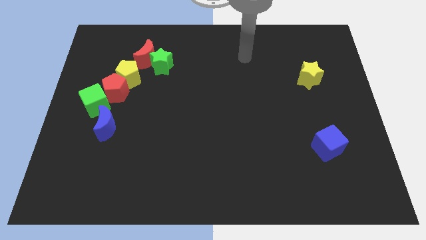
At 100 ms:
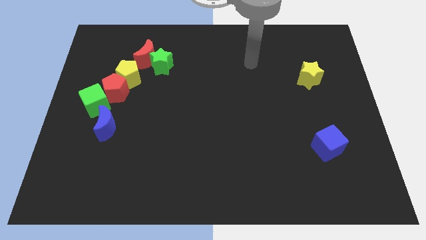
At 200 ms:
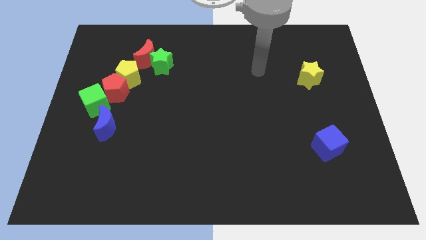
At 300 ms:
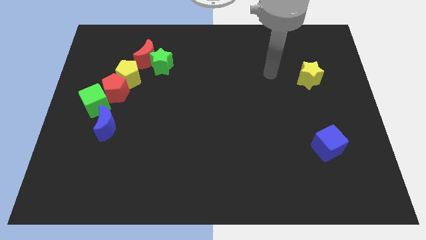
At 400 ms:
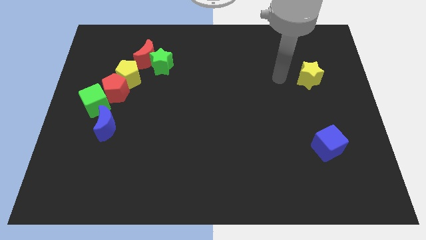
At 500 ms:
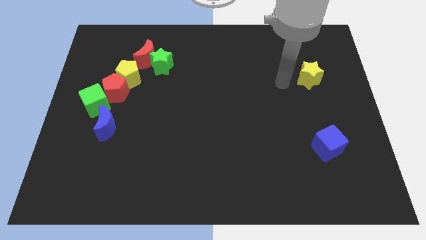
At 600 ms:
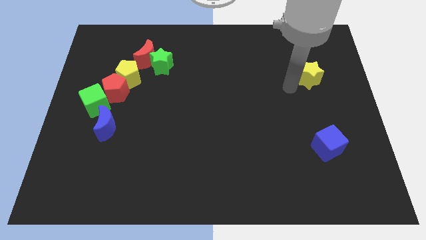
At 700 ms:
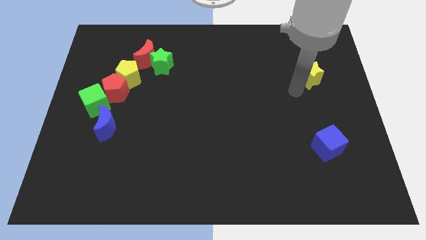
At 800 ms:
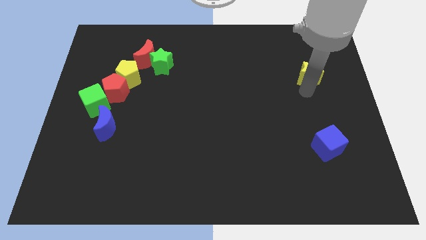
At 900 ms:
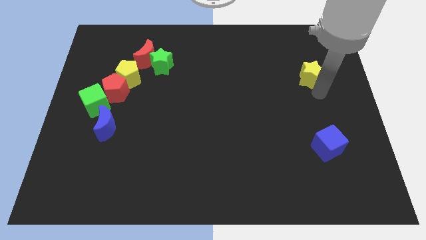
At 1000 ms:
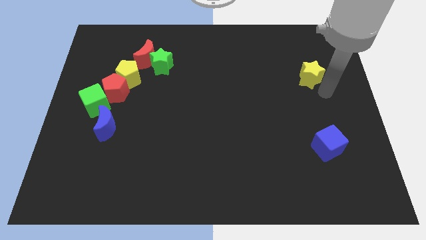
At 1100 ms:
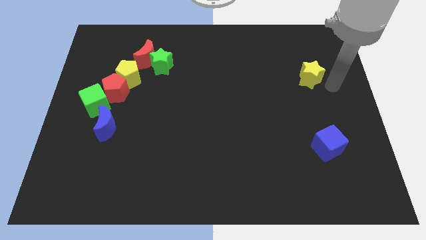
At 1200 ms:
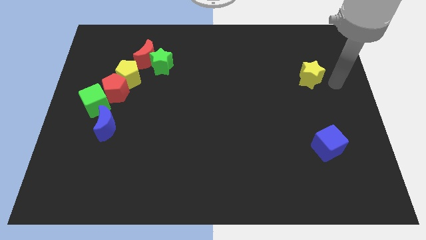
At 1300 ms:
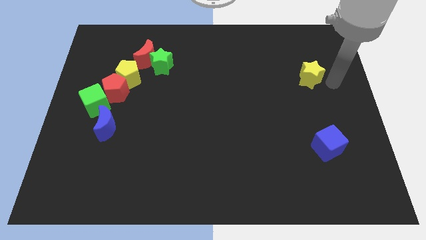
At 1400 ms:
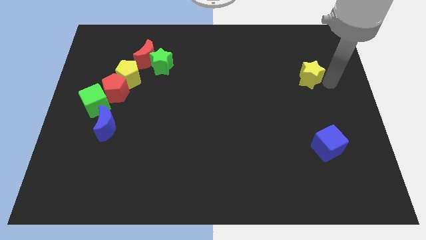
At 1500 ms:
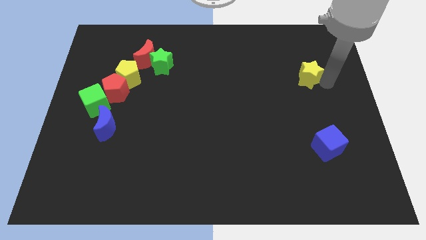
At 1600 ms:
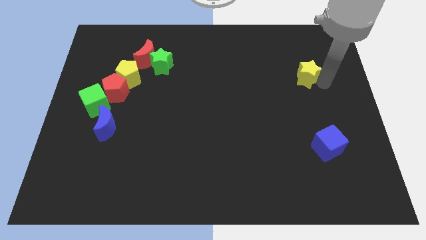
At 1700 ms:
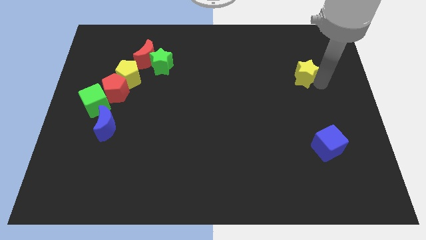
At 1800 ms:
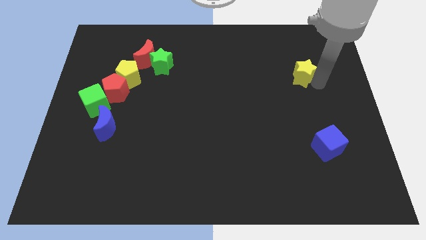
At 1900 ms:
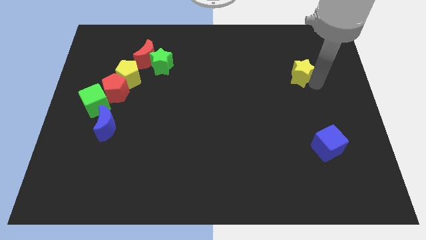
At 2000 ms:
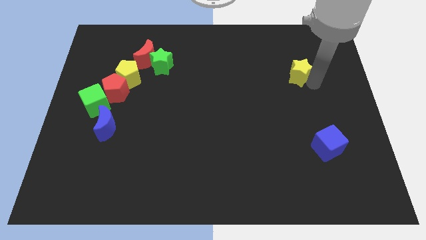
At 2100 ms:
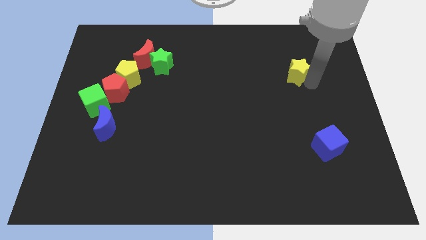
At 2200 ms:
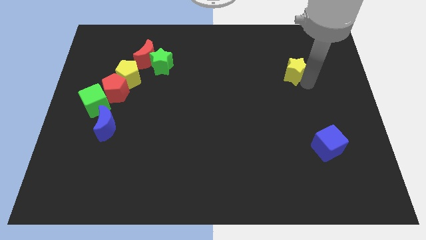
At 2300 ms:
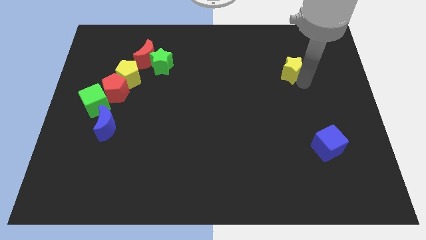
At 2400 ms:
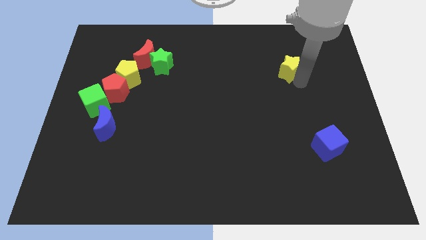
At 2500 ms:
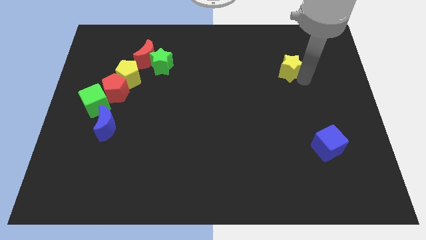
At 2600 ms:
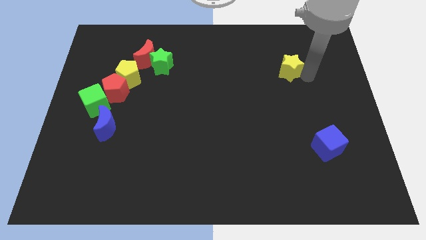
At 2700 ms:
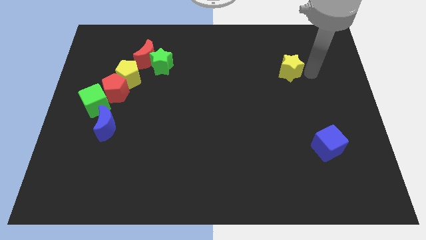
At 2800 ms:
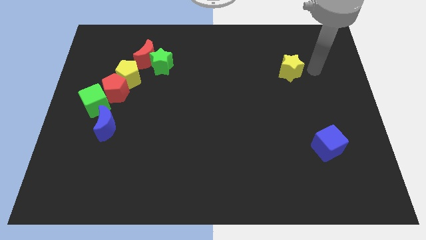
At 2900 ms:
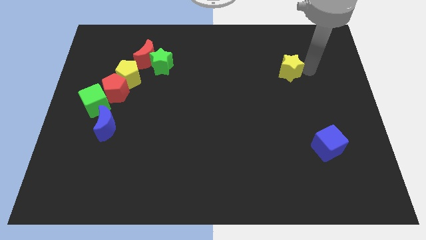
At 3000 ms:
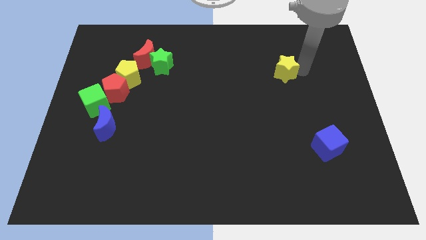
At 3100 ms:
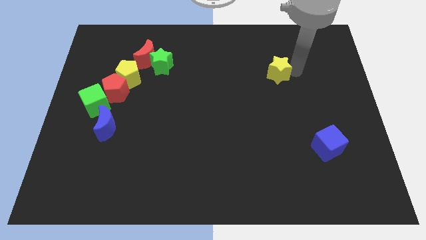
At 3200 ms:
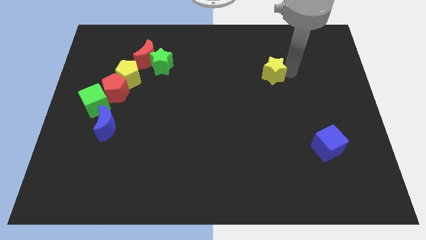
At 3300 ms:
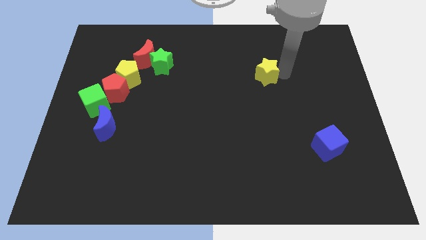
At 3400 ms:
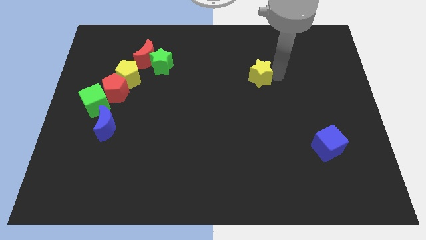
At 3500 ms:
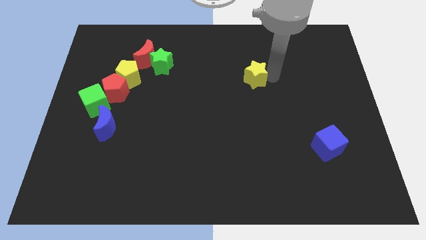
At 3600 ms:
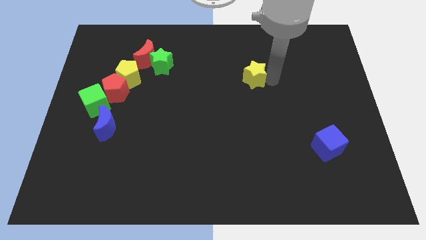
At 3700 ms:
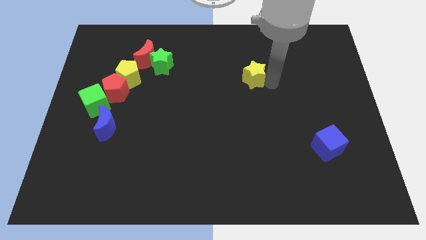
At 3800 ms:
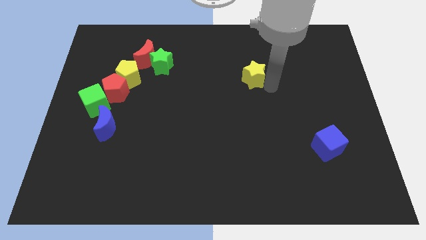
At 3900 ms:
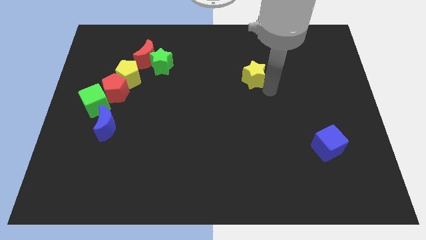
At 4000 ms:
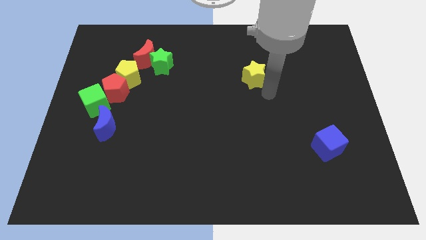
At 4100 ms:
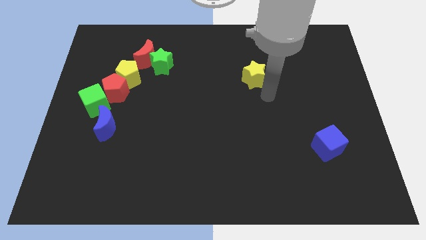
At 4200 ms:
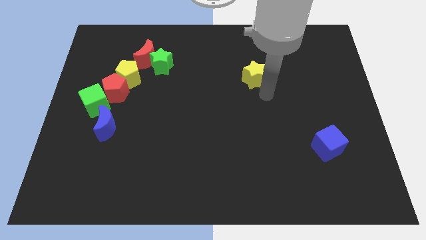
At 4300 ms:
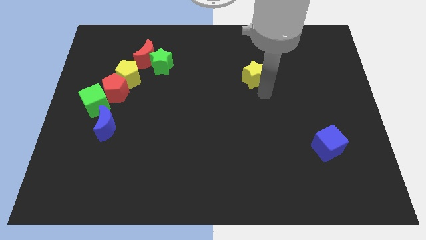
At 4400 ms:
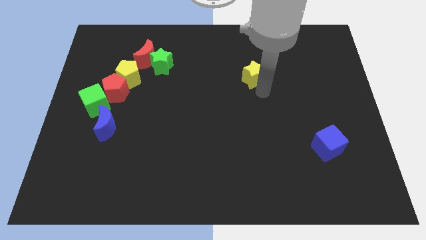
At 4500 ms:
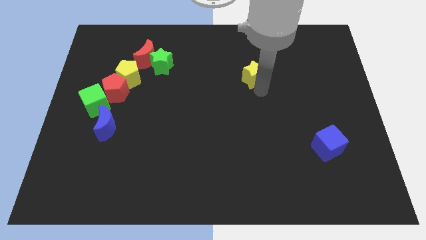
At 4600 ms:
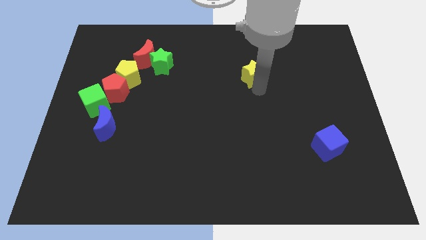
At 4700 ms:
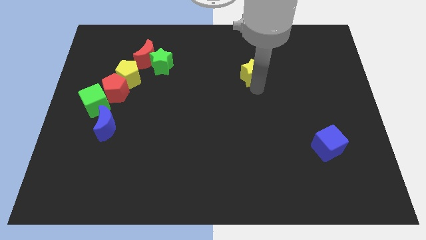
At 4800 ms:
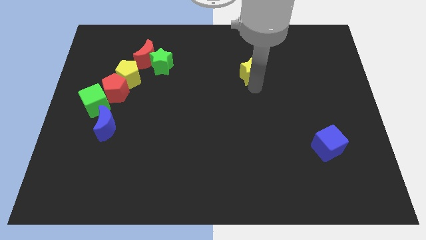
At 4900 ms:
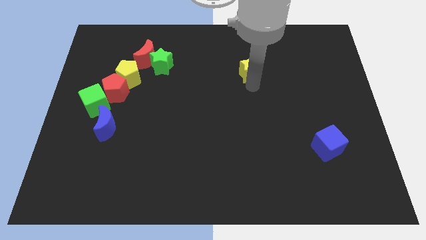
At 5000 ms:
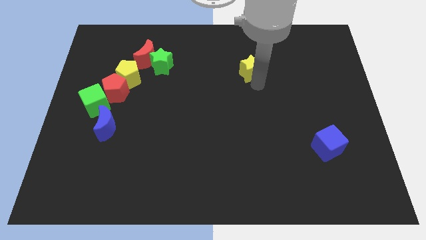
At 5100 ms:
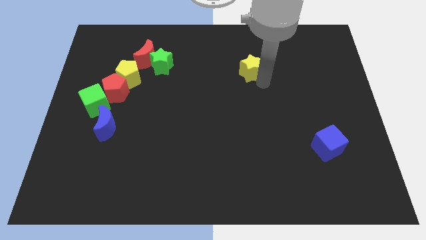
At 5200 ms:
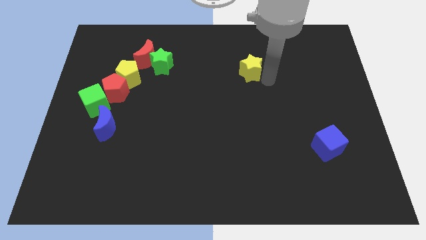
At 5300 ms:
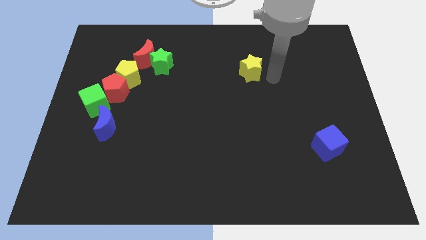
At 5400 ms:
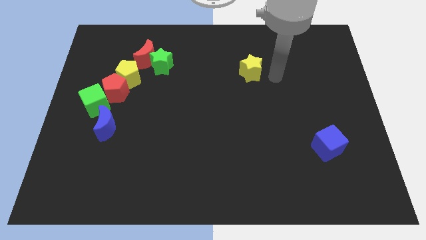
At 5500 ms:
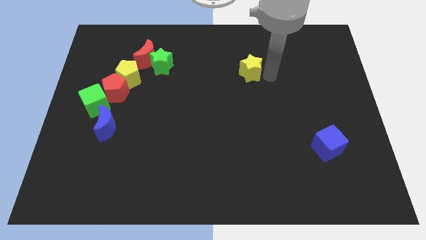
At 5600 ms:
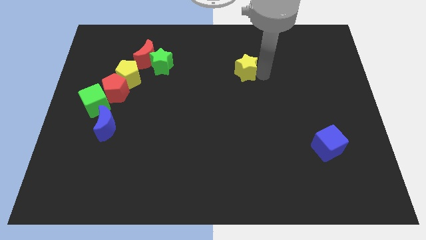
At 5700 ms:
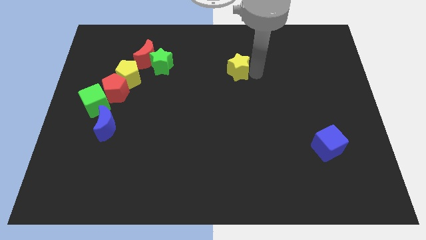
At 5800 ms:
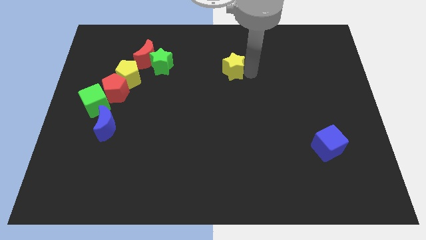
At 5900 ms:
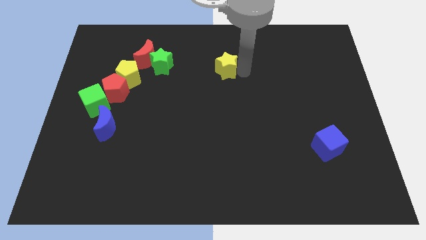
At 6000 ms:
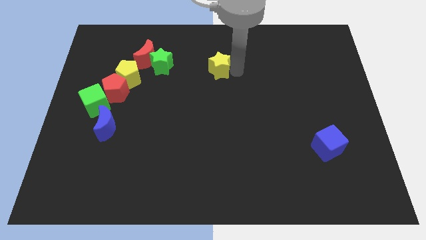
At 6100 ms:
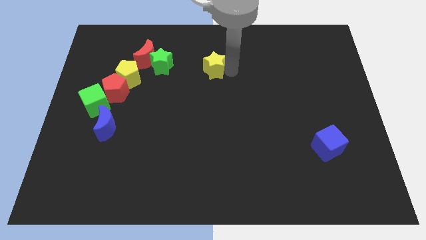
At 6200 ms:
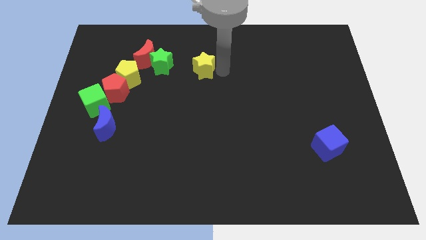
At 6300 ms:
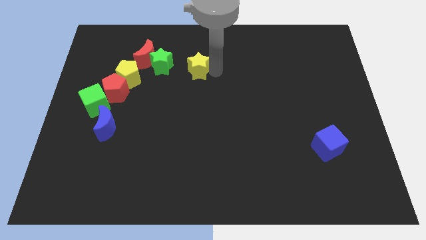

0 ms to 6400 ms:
push the yellow star to the right of the red moon

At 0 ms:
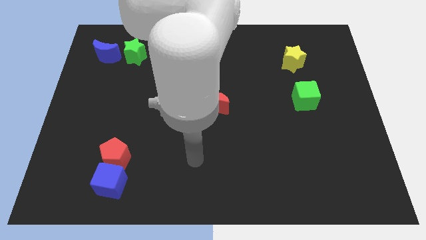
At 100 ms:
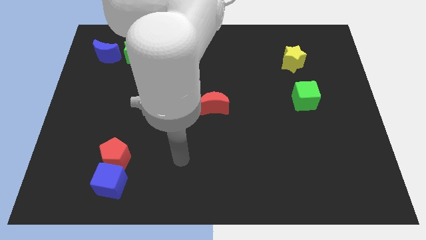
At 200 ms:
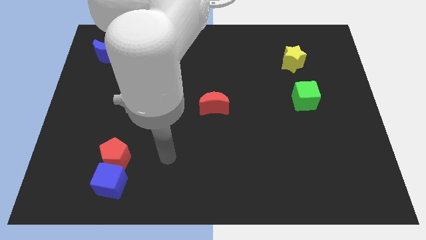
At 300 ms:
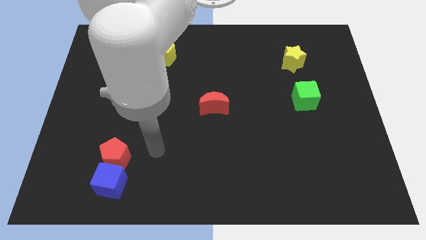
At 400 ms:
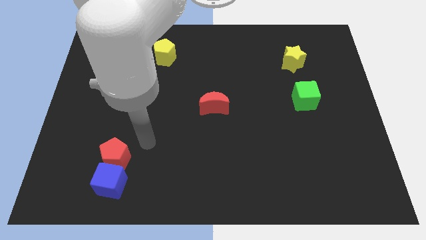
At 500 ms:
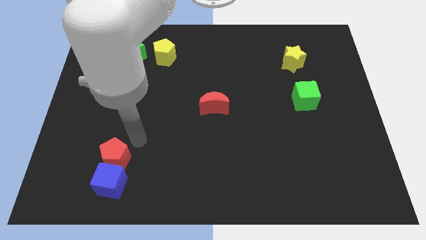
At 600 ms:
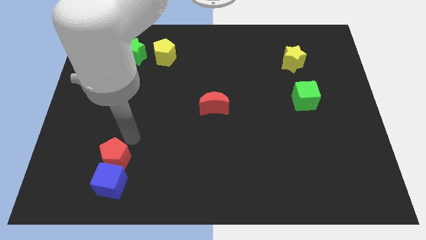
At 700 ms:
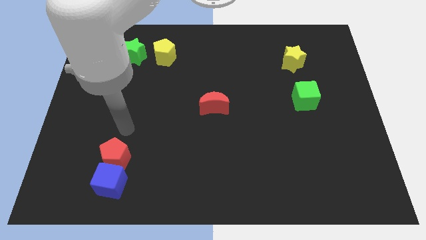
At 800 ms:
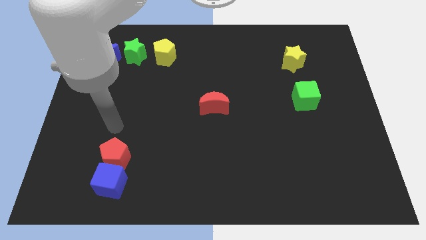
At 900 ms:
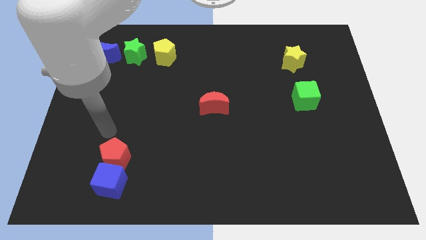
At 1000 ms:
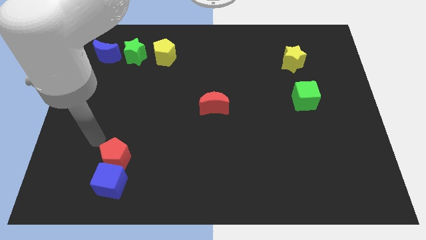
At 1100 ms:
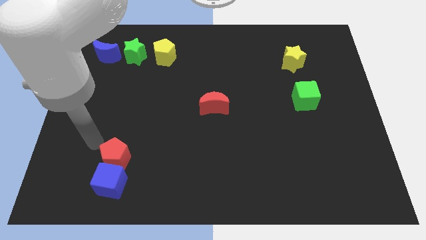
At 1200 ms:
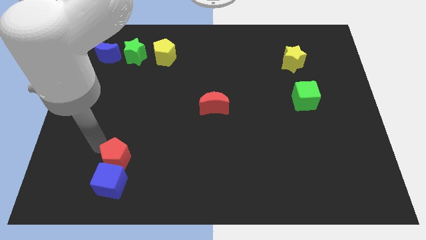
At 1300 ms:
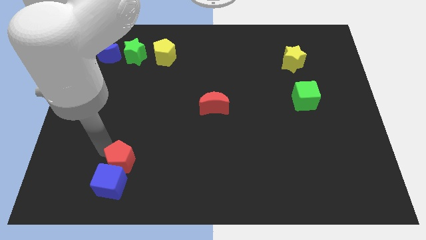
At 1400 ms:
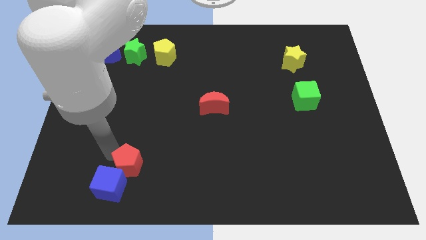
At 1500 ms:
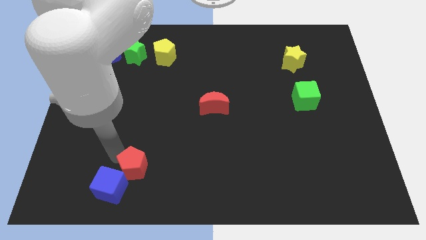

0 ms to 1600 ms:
push the red pentagon to the right side of the blue cube
